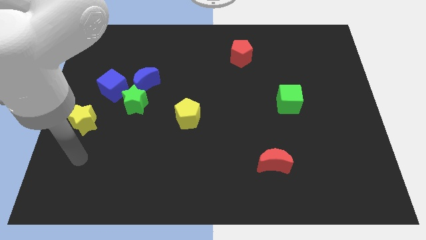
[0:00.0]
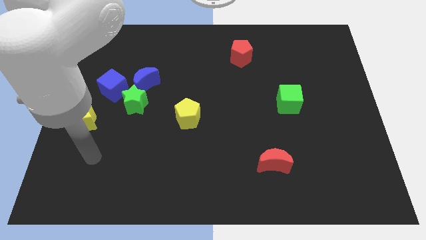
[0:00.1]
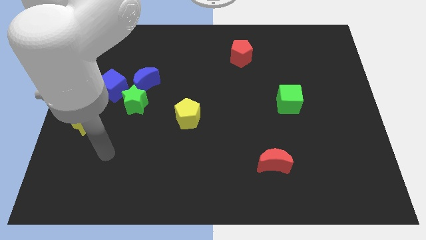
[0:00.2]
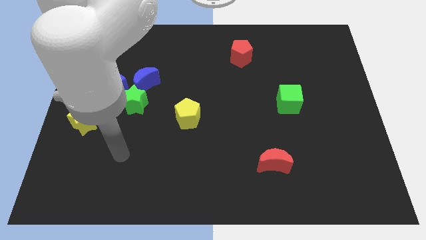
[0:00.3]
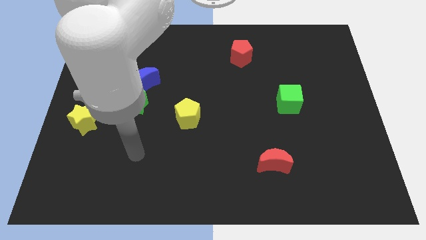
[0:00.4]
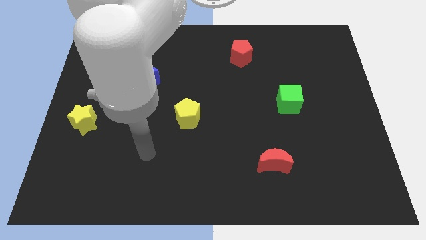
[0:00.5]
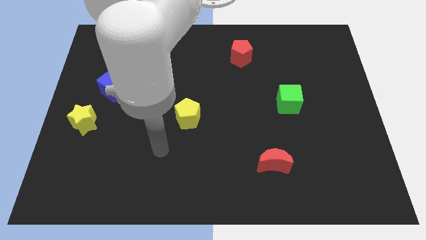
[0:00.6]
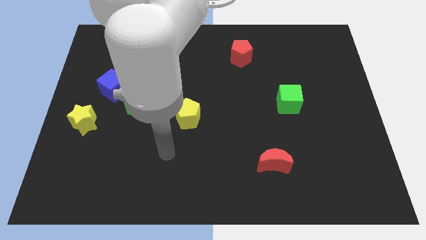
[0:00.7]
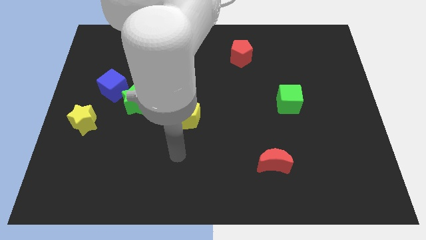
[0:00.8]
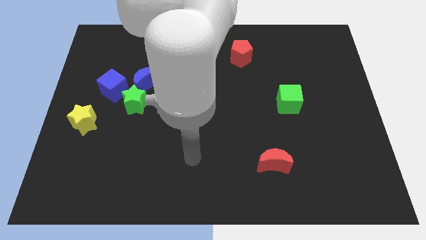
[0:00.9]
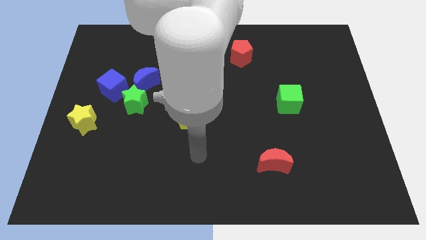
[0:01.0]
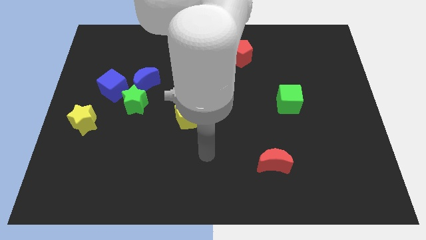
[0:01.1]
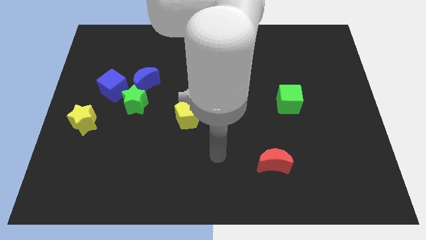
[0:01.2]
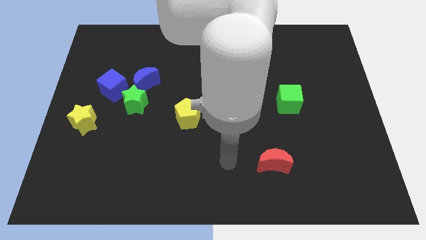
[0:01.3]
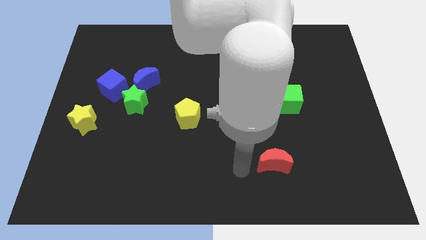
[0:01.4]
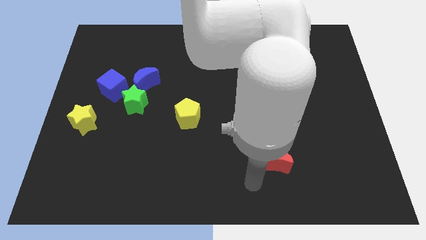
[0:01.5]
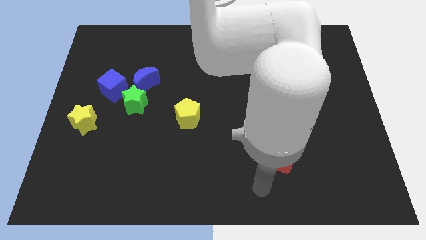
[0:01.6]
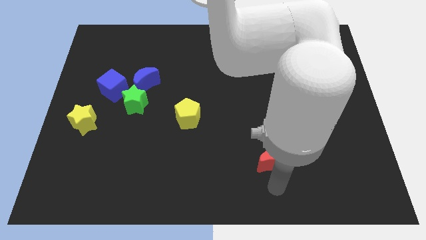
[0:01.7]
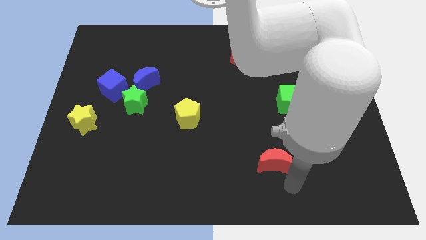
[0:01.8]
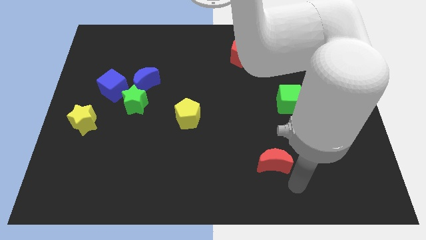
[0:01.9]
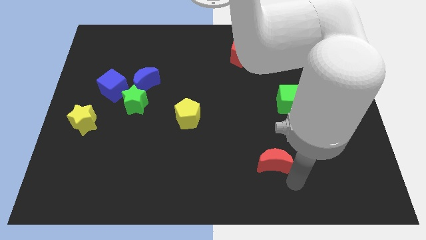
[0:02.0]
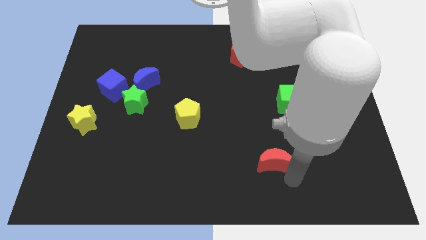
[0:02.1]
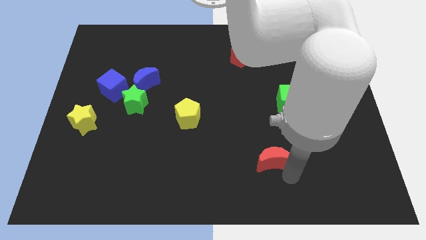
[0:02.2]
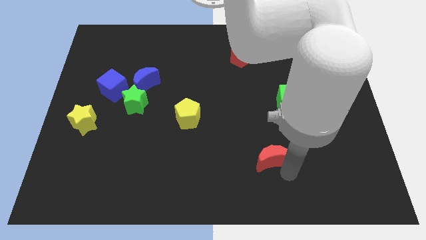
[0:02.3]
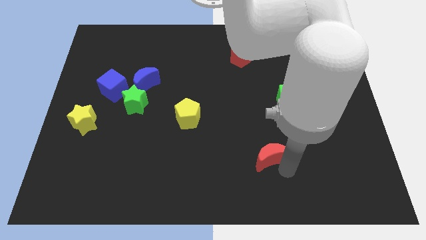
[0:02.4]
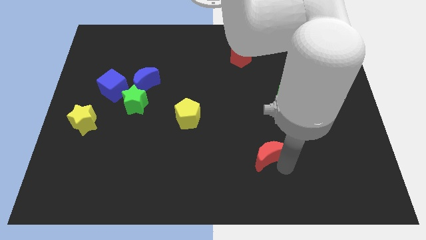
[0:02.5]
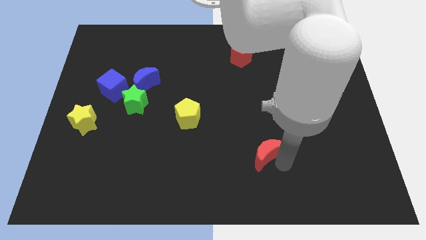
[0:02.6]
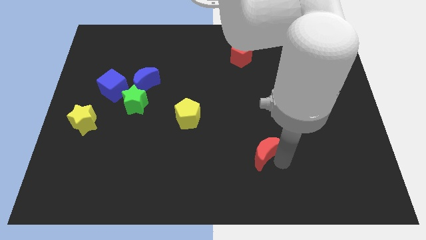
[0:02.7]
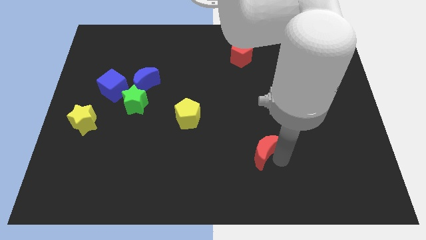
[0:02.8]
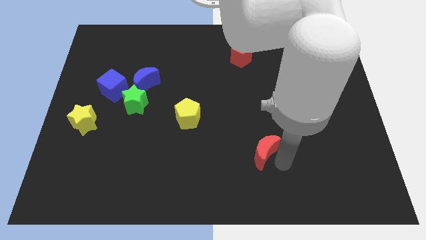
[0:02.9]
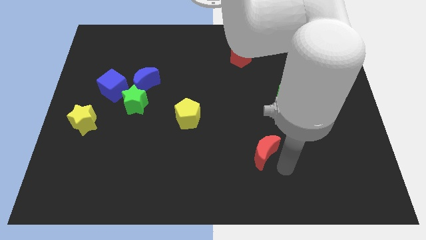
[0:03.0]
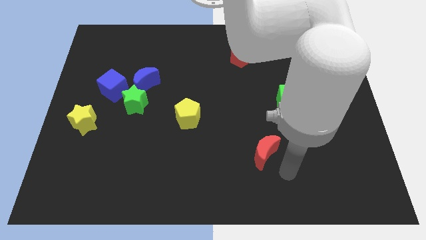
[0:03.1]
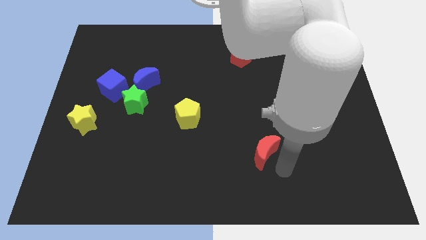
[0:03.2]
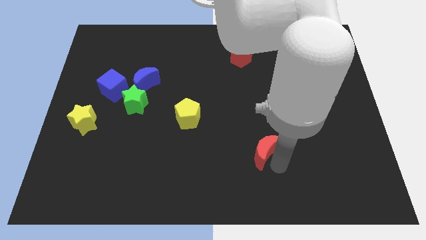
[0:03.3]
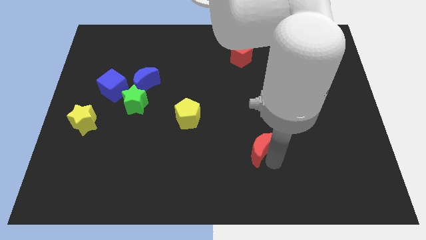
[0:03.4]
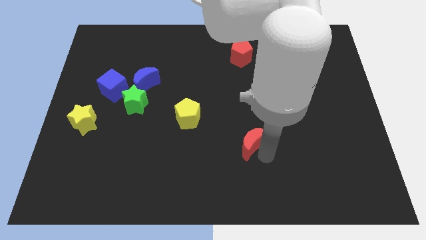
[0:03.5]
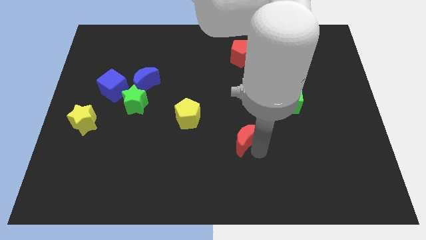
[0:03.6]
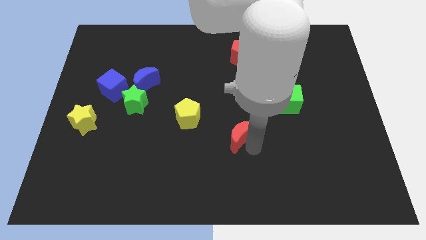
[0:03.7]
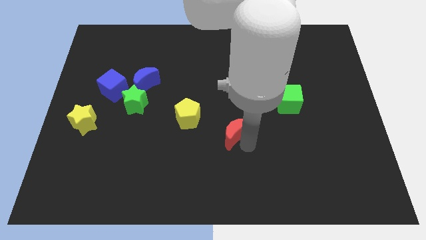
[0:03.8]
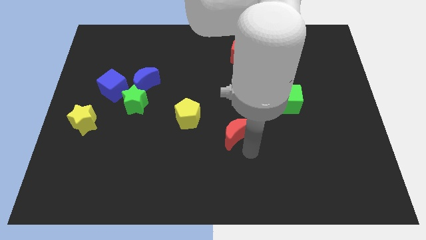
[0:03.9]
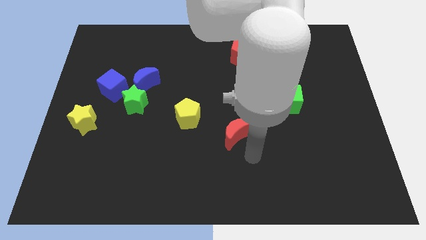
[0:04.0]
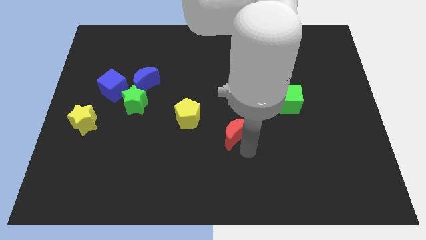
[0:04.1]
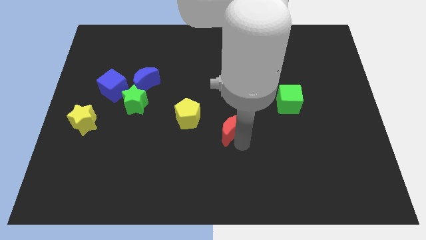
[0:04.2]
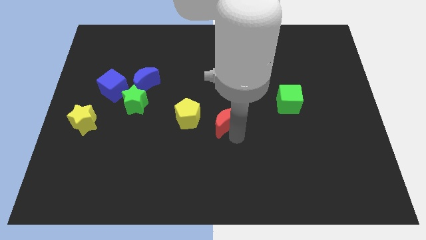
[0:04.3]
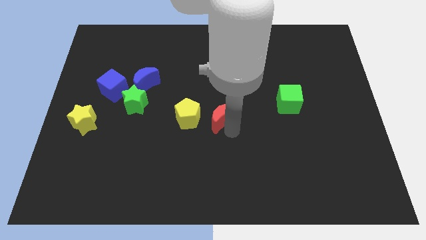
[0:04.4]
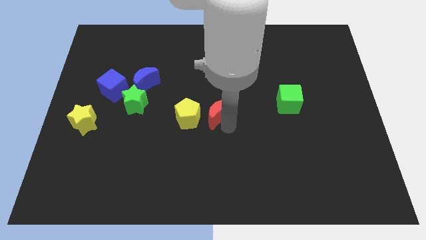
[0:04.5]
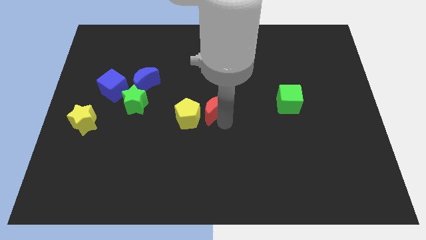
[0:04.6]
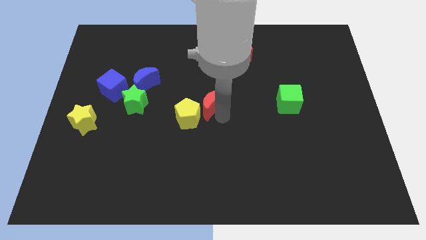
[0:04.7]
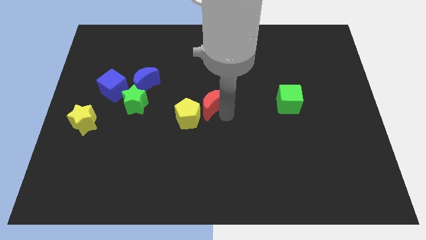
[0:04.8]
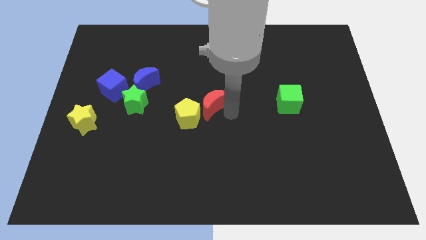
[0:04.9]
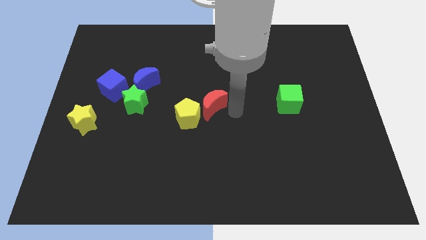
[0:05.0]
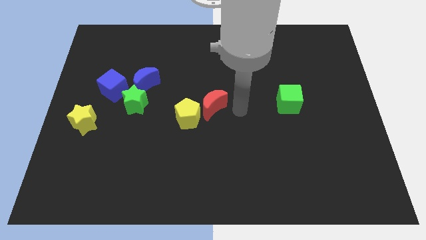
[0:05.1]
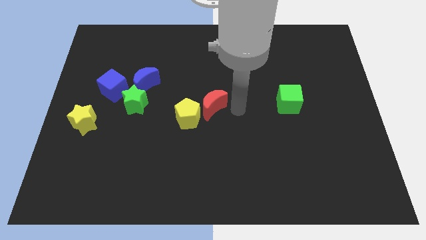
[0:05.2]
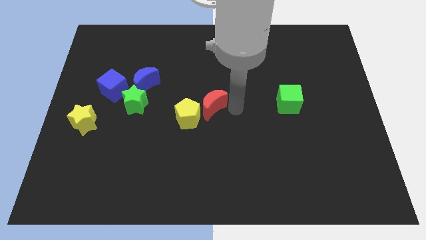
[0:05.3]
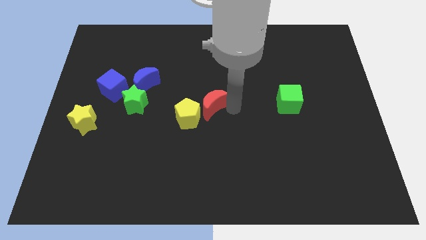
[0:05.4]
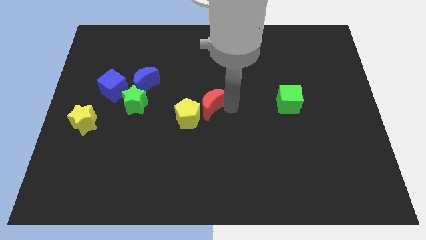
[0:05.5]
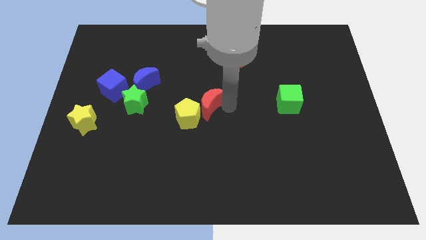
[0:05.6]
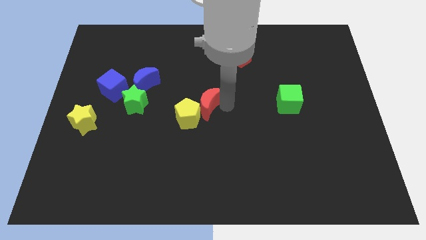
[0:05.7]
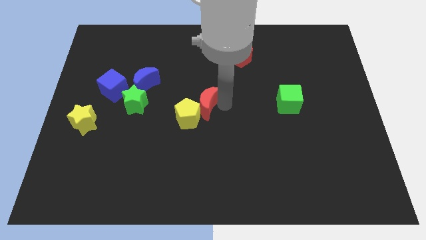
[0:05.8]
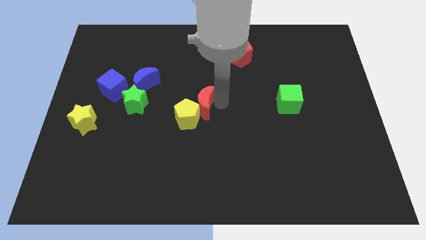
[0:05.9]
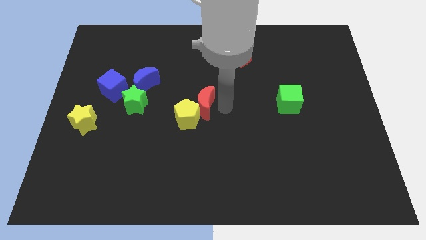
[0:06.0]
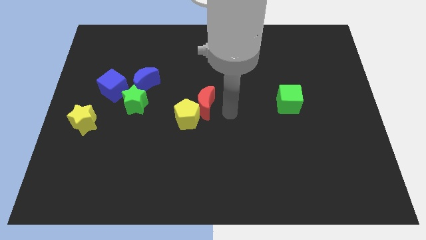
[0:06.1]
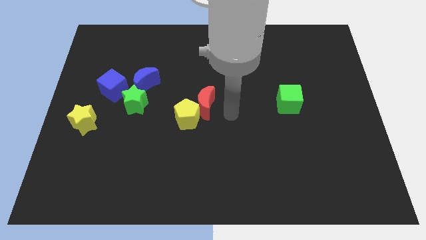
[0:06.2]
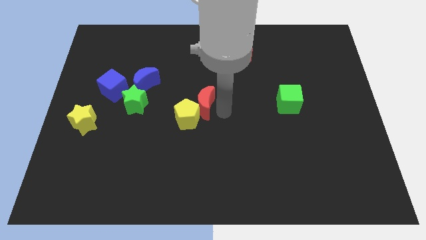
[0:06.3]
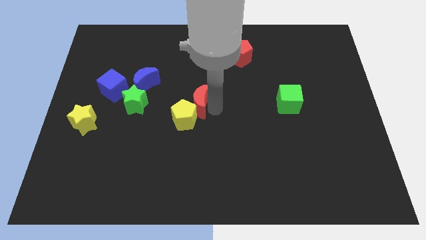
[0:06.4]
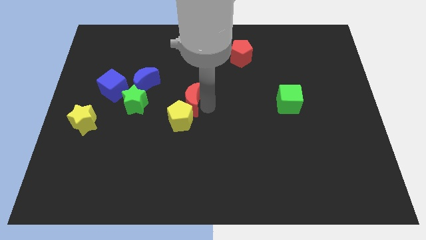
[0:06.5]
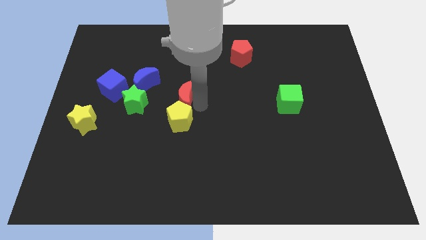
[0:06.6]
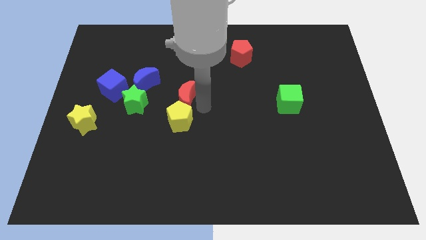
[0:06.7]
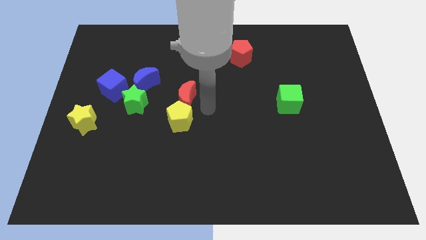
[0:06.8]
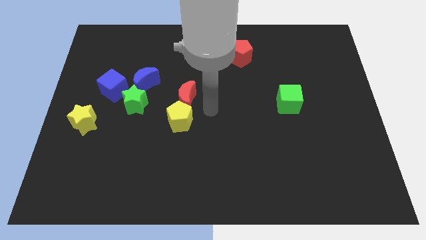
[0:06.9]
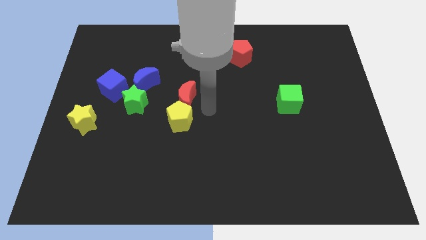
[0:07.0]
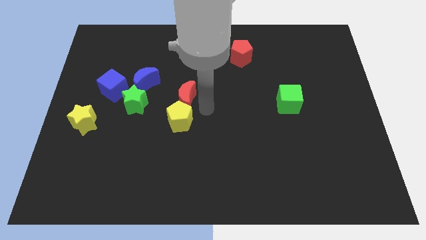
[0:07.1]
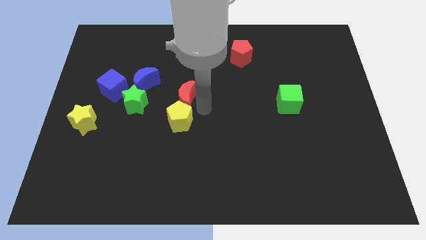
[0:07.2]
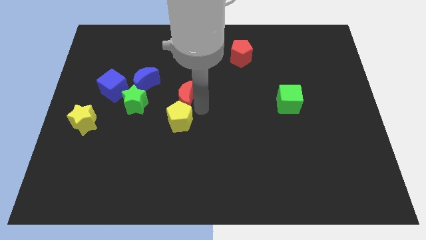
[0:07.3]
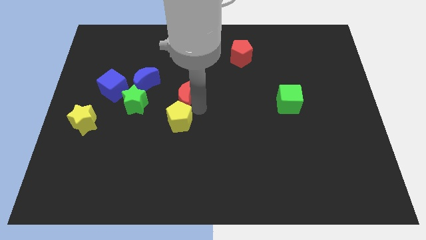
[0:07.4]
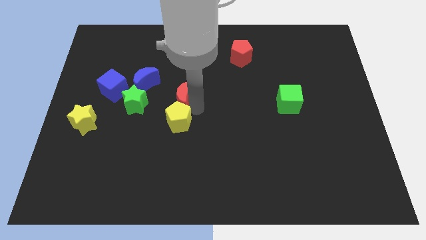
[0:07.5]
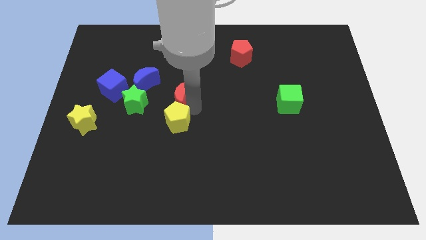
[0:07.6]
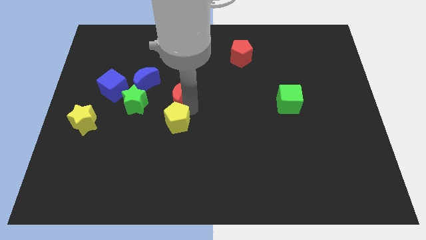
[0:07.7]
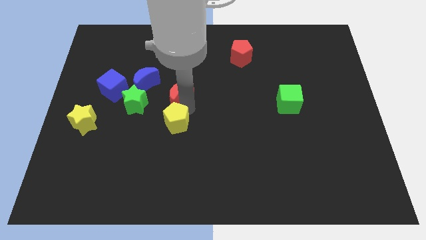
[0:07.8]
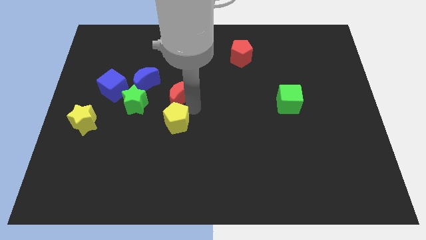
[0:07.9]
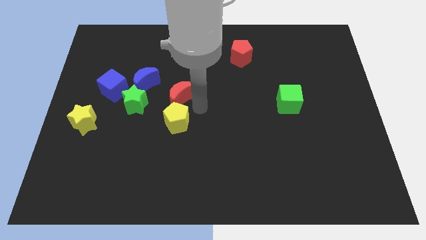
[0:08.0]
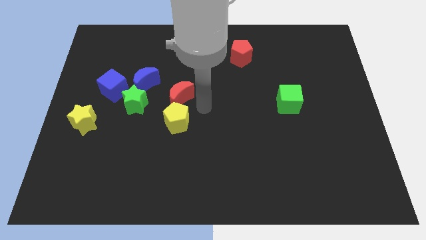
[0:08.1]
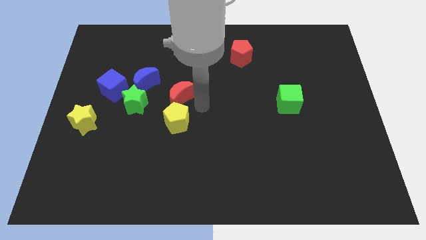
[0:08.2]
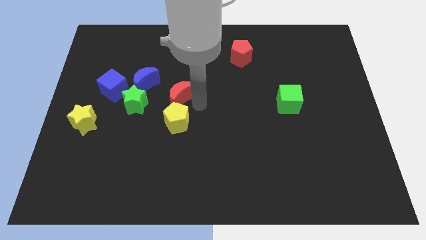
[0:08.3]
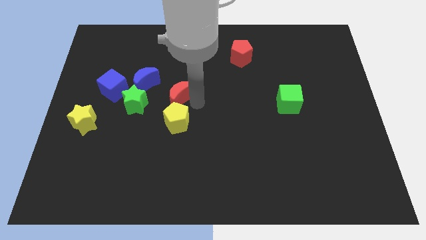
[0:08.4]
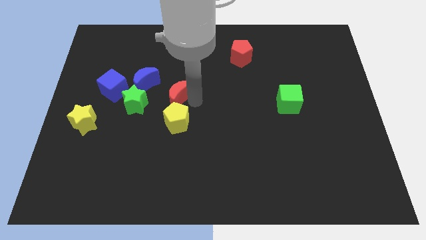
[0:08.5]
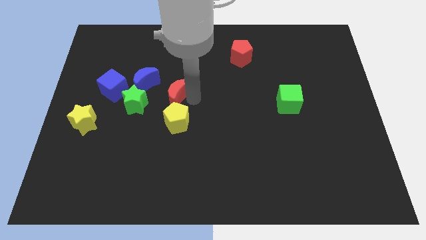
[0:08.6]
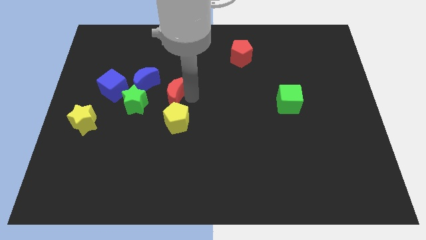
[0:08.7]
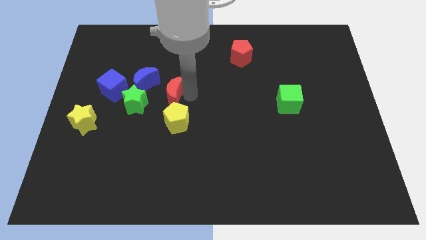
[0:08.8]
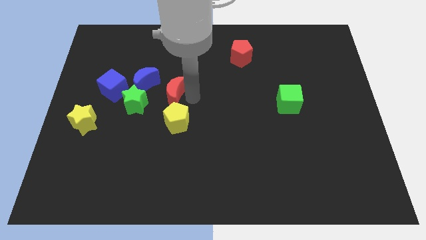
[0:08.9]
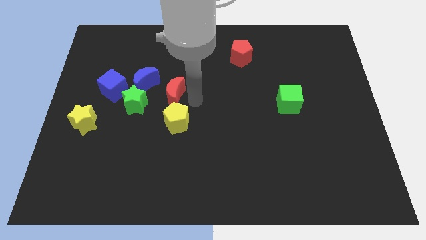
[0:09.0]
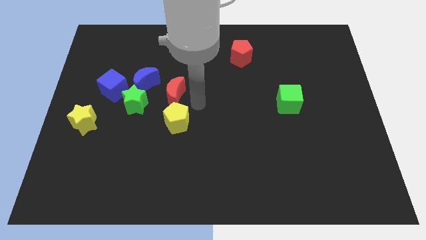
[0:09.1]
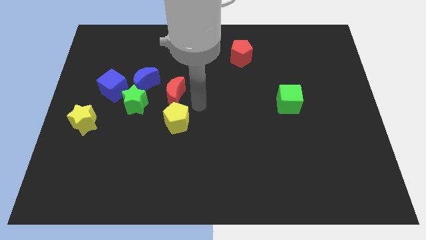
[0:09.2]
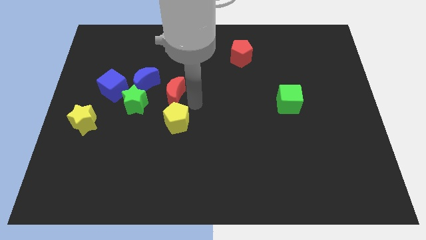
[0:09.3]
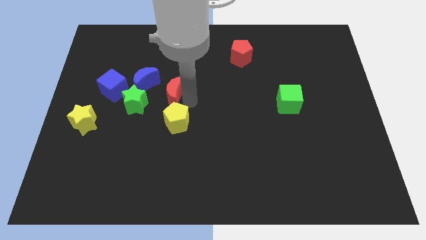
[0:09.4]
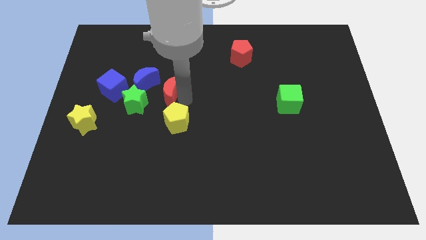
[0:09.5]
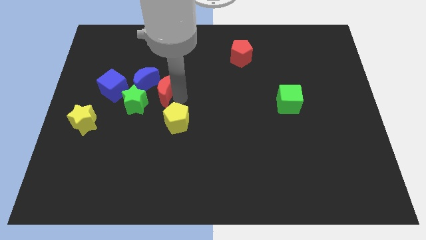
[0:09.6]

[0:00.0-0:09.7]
push the red moon to the blue moon
